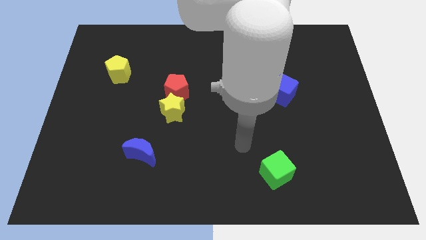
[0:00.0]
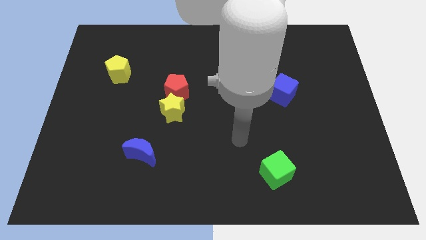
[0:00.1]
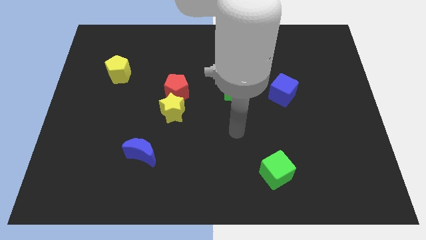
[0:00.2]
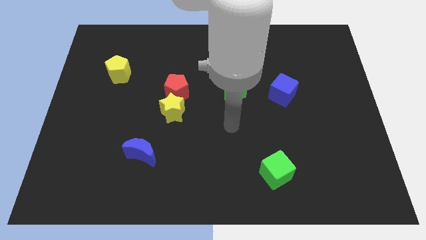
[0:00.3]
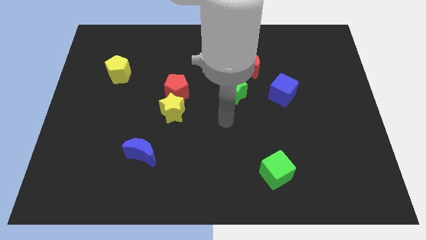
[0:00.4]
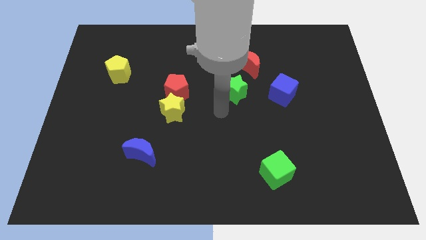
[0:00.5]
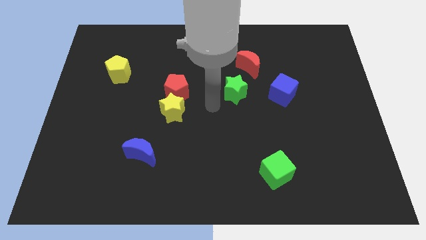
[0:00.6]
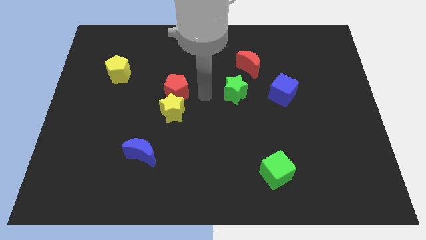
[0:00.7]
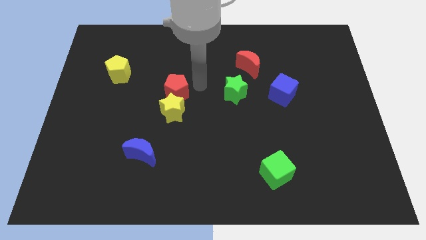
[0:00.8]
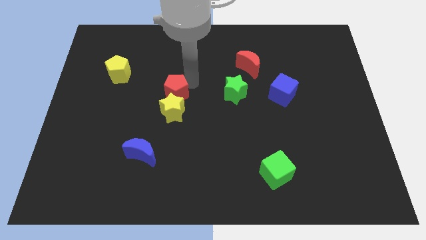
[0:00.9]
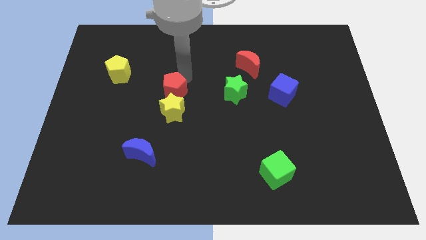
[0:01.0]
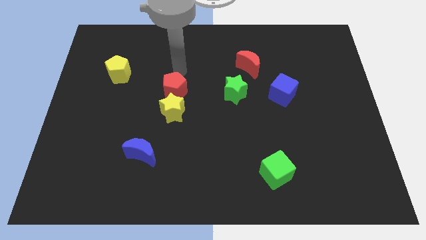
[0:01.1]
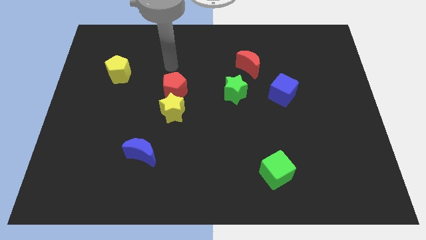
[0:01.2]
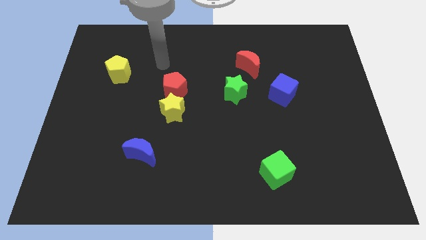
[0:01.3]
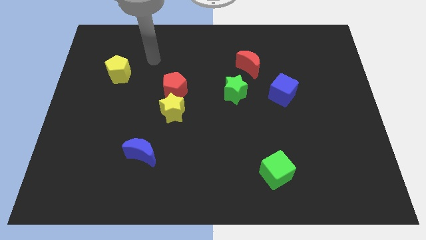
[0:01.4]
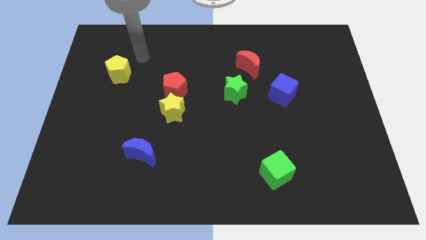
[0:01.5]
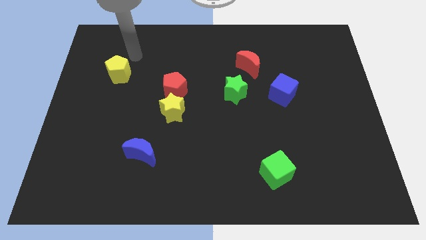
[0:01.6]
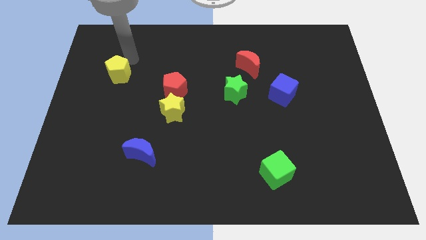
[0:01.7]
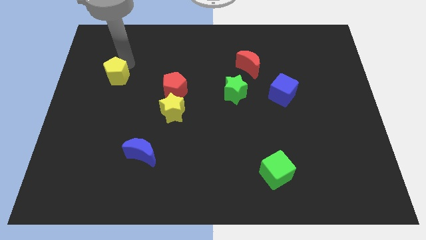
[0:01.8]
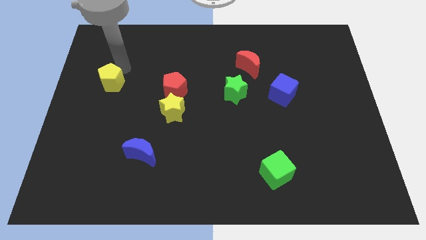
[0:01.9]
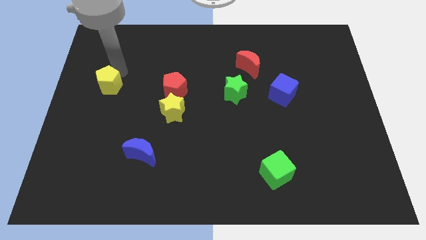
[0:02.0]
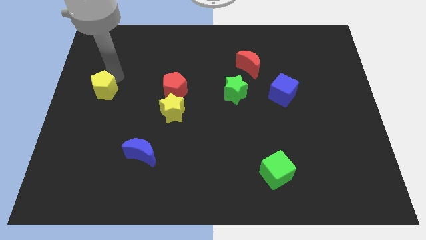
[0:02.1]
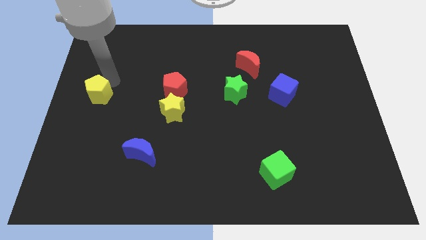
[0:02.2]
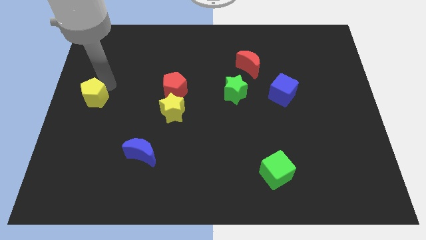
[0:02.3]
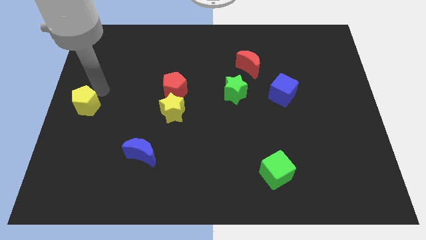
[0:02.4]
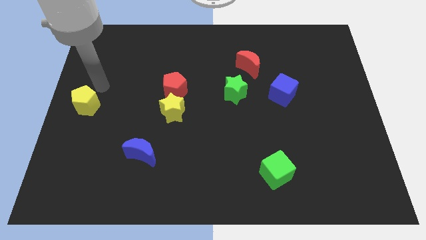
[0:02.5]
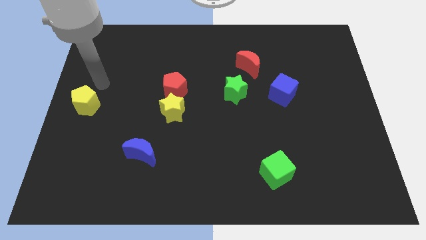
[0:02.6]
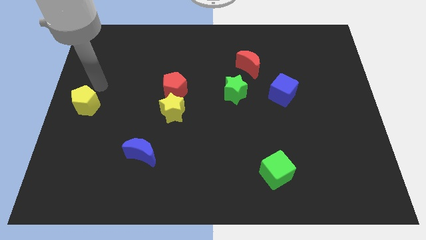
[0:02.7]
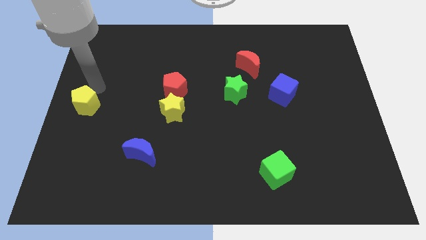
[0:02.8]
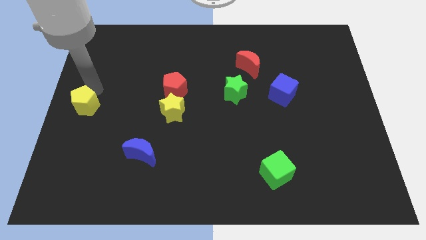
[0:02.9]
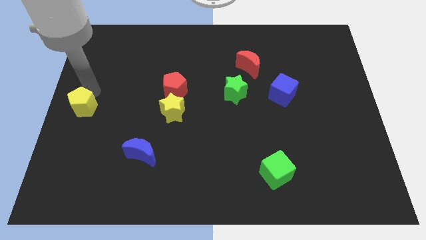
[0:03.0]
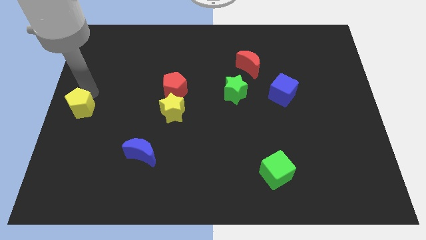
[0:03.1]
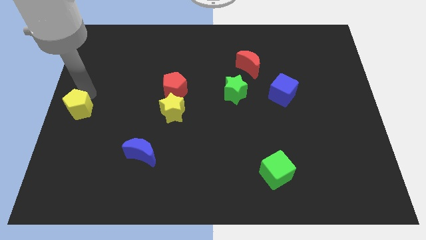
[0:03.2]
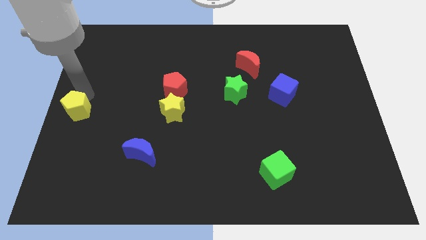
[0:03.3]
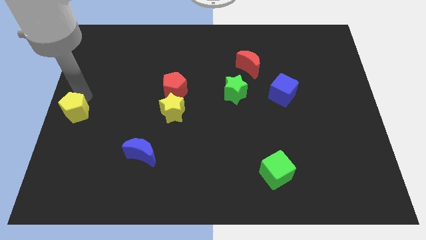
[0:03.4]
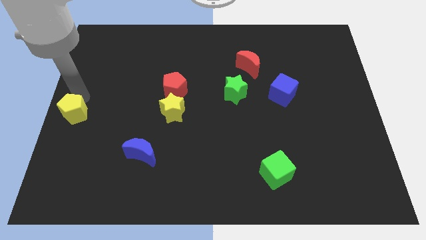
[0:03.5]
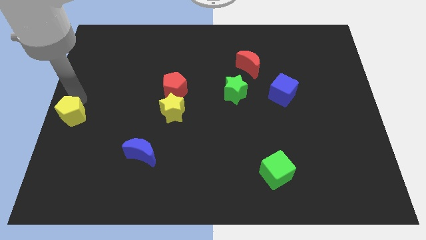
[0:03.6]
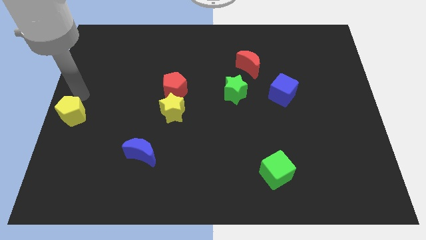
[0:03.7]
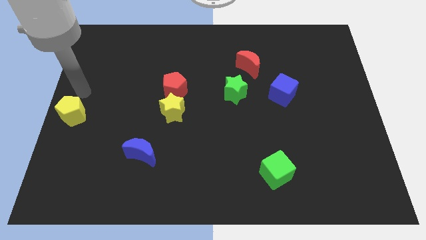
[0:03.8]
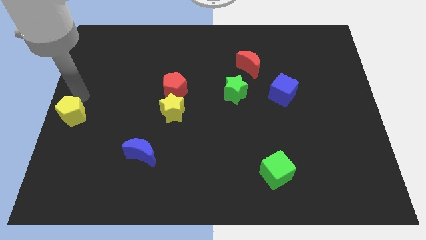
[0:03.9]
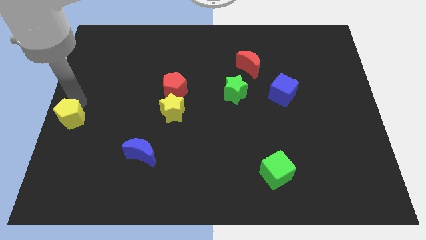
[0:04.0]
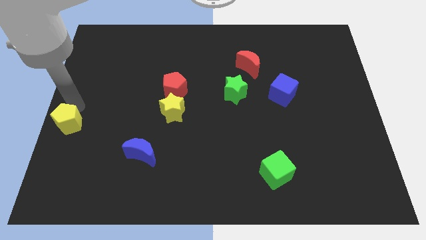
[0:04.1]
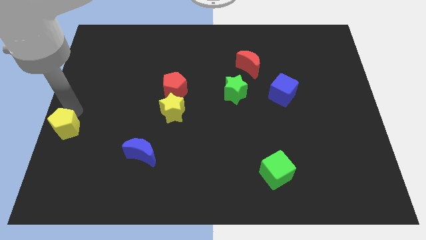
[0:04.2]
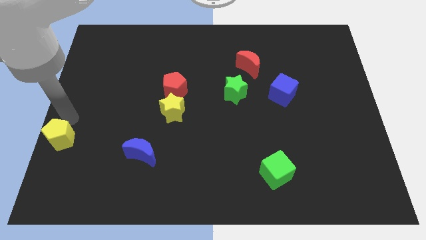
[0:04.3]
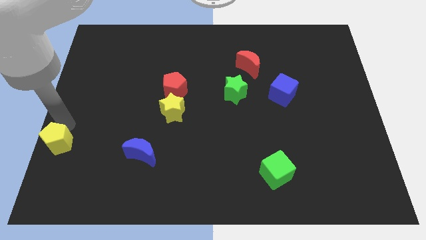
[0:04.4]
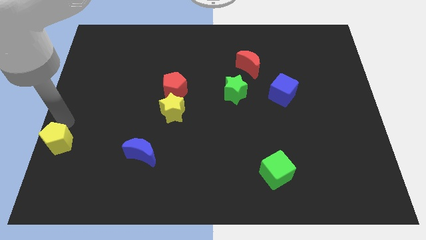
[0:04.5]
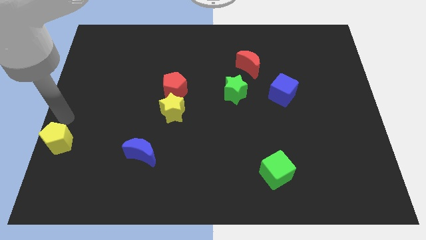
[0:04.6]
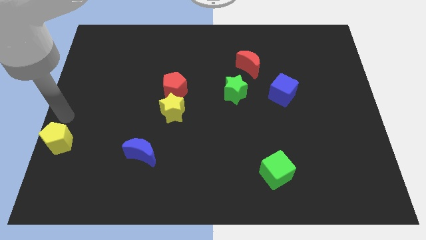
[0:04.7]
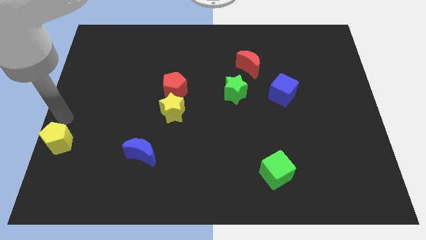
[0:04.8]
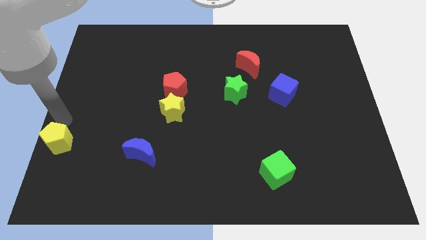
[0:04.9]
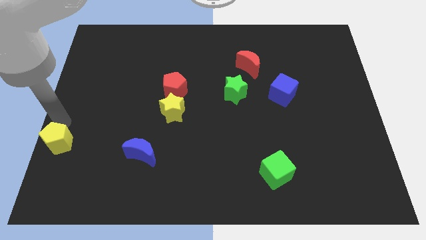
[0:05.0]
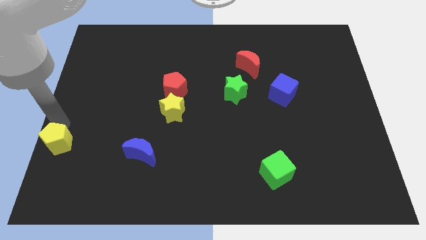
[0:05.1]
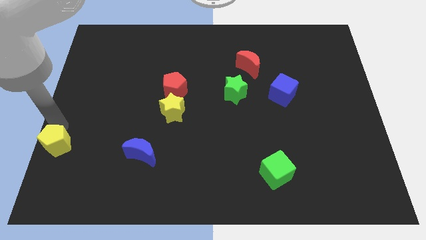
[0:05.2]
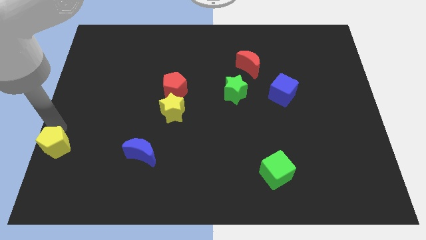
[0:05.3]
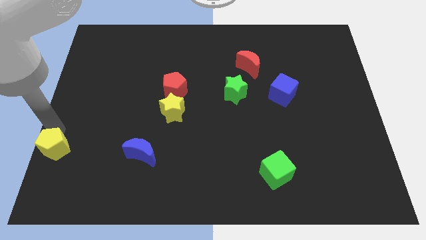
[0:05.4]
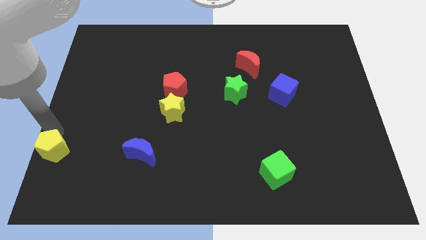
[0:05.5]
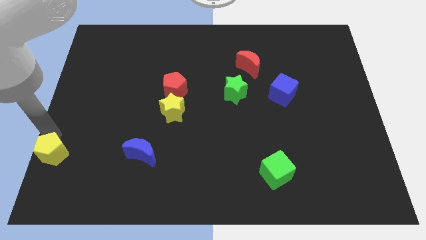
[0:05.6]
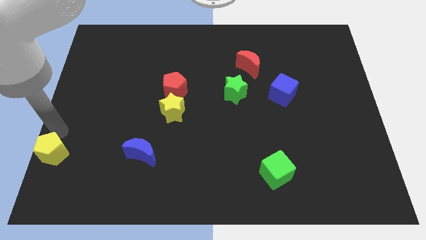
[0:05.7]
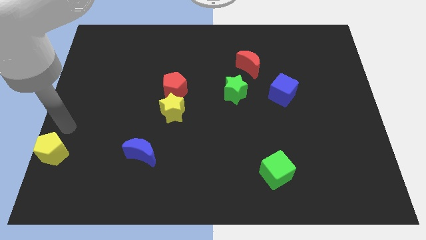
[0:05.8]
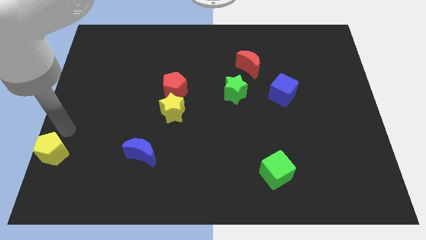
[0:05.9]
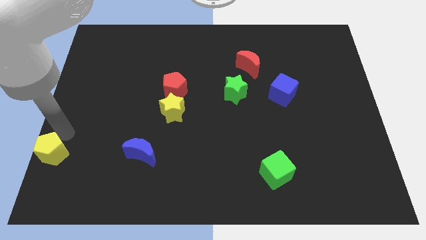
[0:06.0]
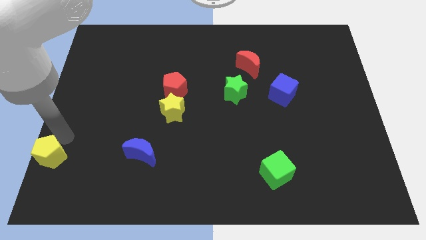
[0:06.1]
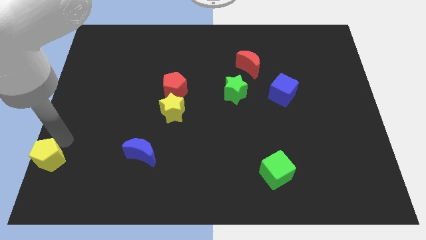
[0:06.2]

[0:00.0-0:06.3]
slide the yellow pentagon to the bottom left of the board

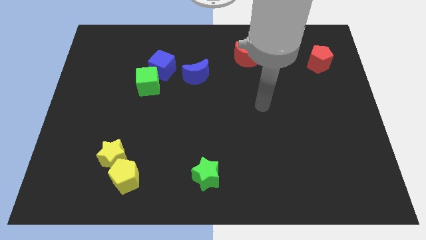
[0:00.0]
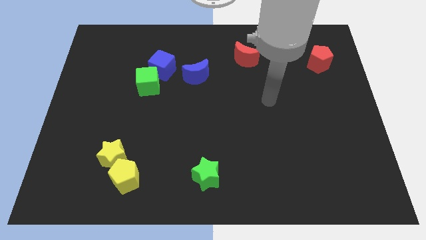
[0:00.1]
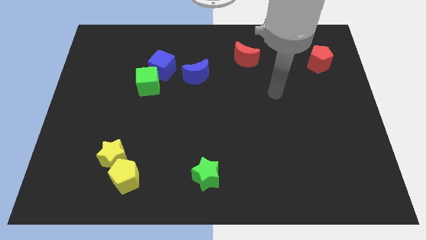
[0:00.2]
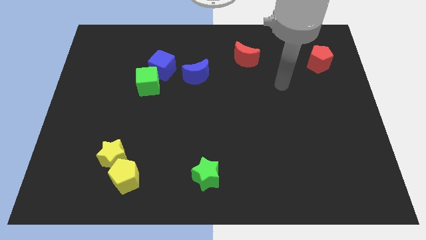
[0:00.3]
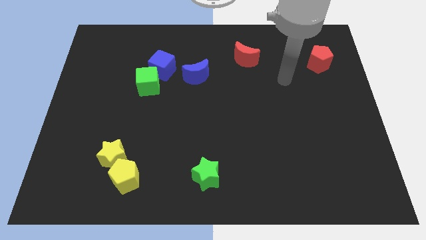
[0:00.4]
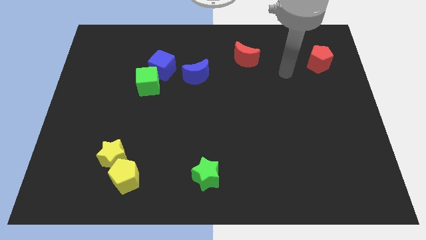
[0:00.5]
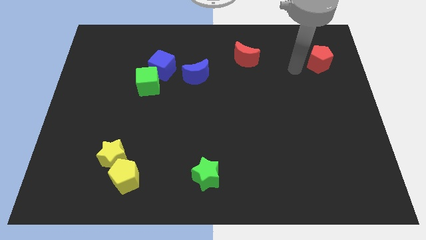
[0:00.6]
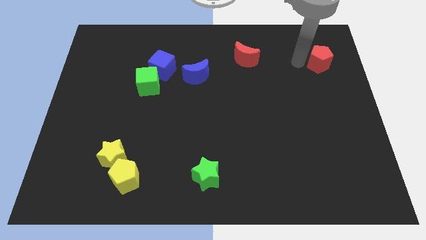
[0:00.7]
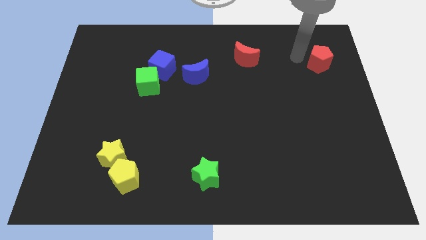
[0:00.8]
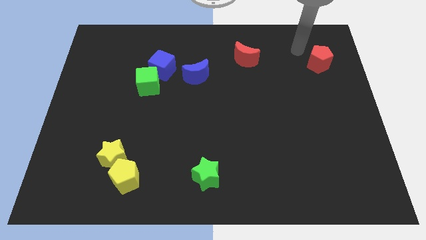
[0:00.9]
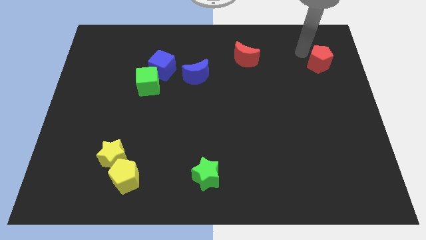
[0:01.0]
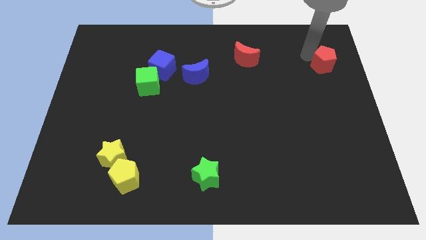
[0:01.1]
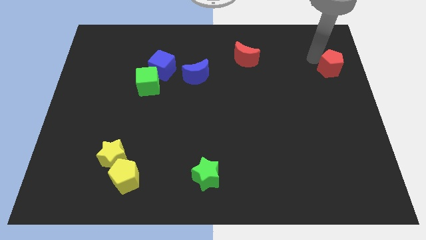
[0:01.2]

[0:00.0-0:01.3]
put the red pentagon to the center right
